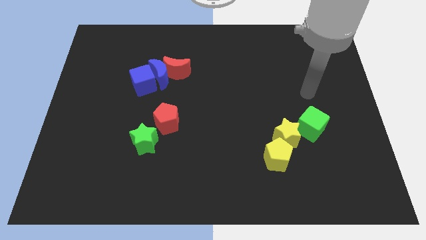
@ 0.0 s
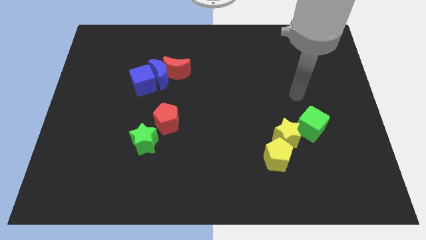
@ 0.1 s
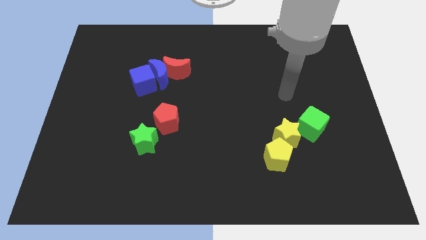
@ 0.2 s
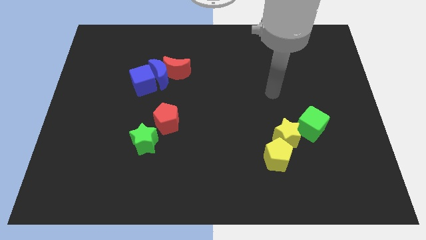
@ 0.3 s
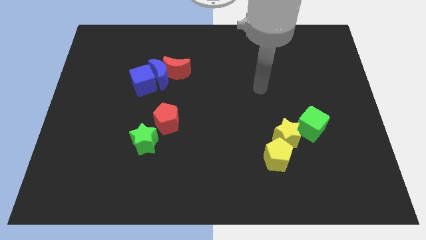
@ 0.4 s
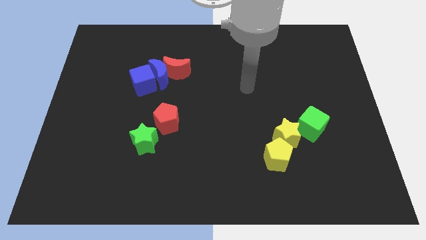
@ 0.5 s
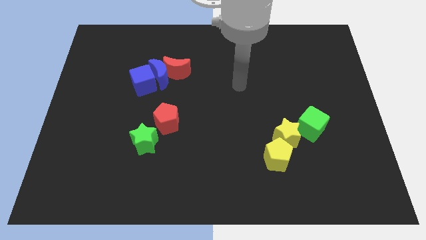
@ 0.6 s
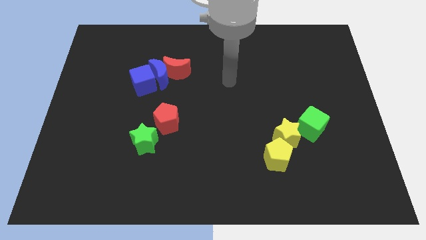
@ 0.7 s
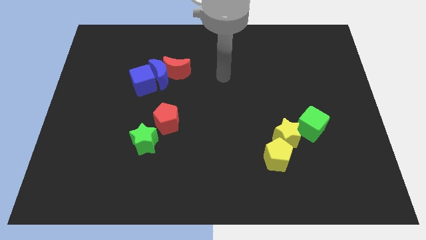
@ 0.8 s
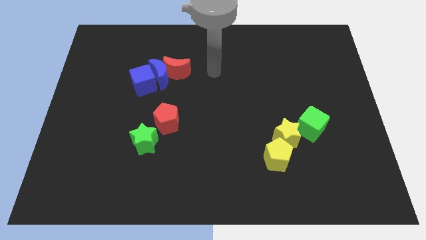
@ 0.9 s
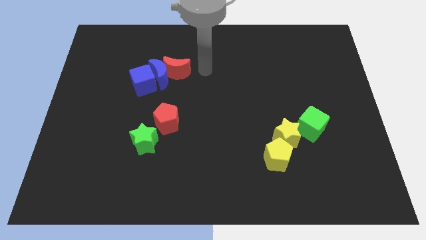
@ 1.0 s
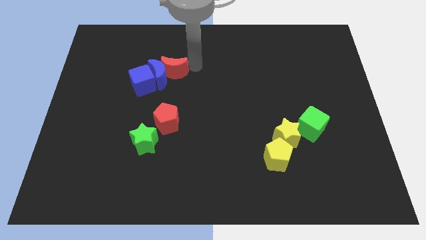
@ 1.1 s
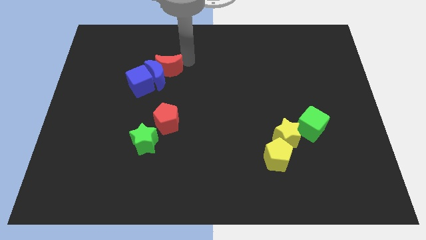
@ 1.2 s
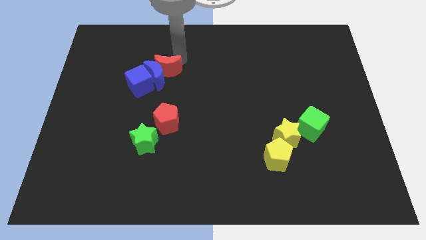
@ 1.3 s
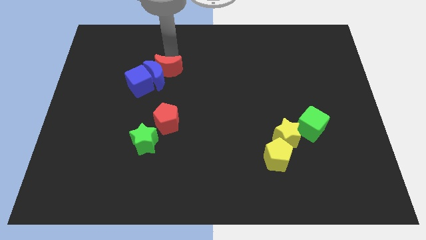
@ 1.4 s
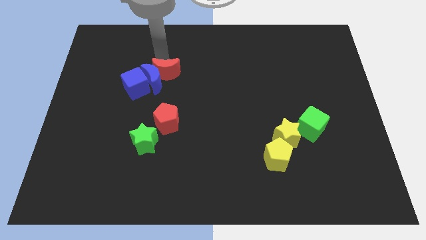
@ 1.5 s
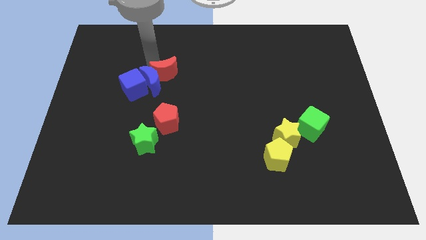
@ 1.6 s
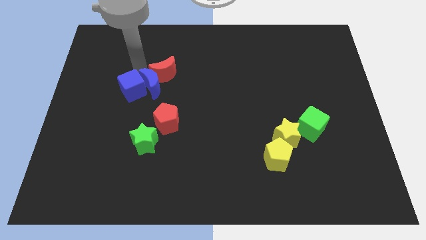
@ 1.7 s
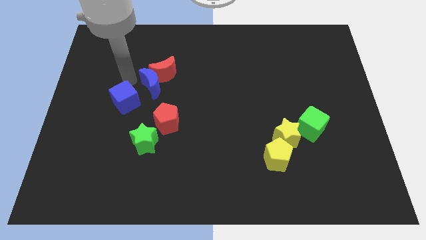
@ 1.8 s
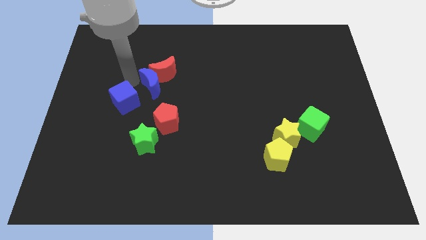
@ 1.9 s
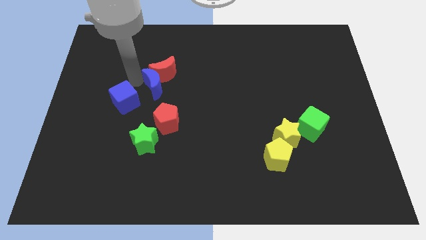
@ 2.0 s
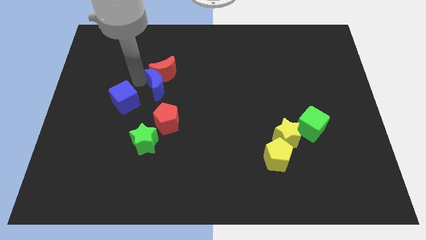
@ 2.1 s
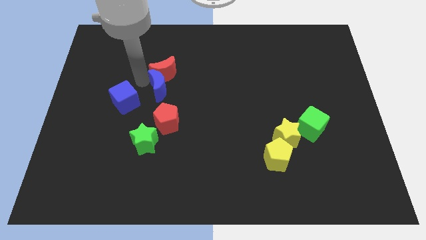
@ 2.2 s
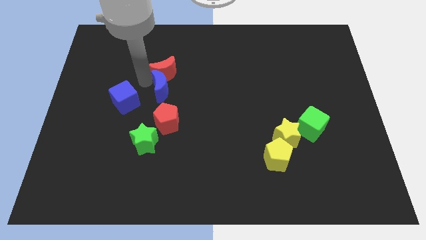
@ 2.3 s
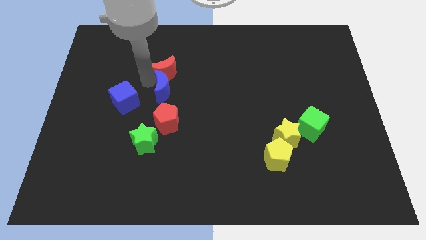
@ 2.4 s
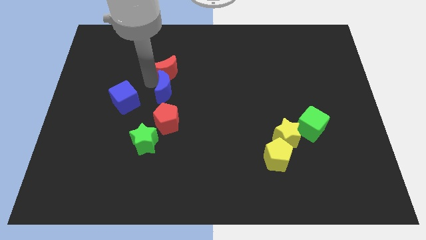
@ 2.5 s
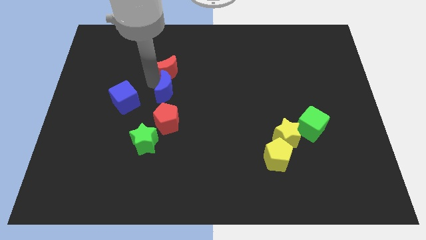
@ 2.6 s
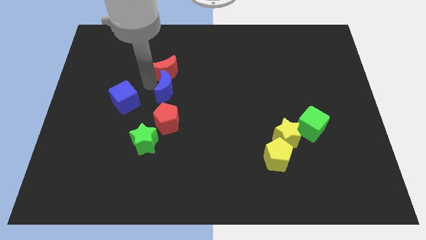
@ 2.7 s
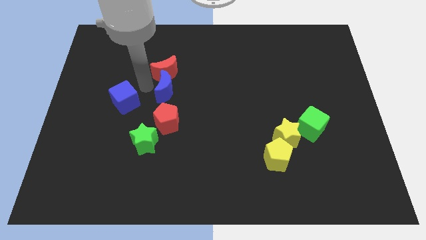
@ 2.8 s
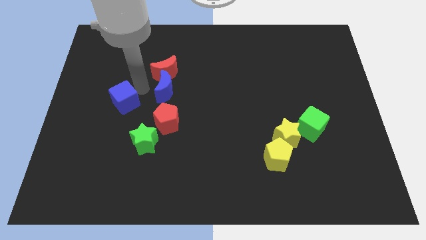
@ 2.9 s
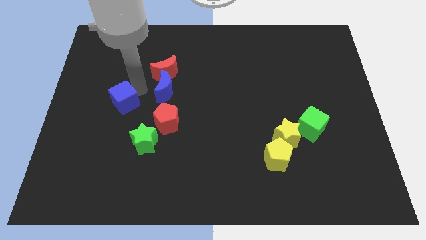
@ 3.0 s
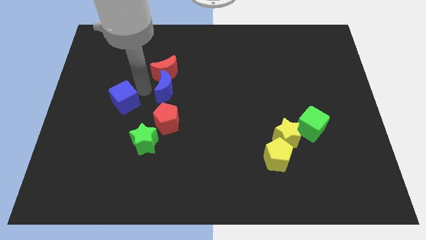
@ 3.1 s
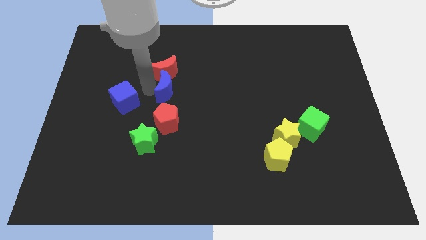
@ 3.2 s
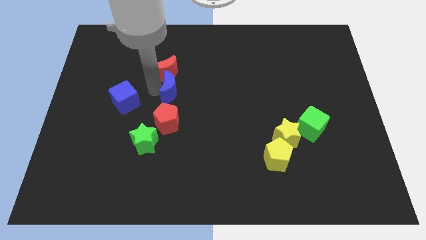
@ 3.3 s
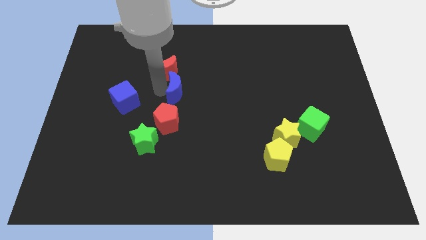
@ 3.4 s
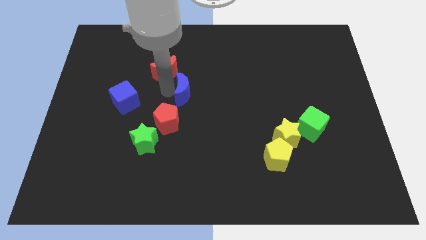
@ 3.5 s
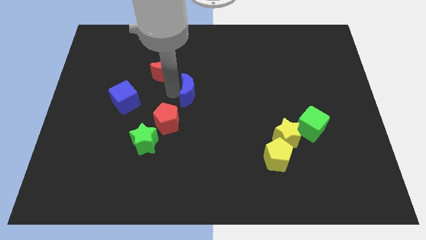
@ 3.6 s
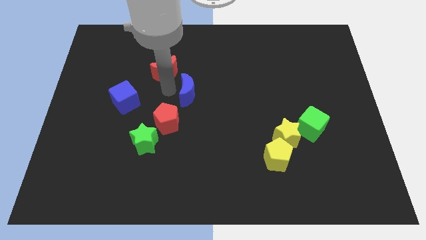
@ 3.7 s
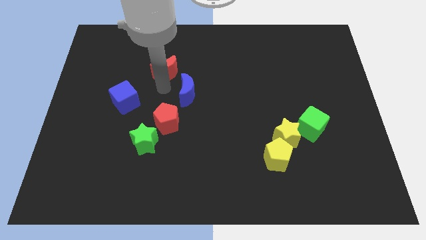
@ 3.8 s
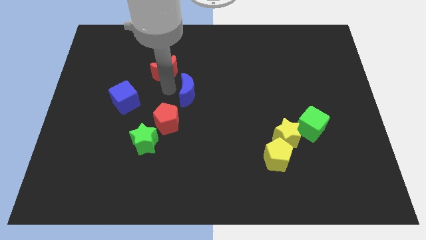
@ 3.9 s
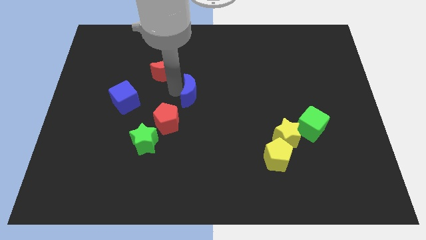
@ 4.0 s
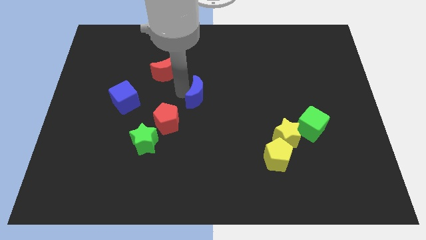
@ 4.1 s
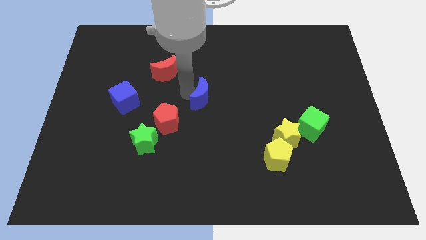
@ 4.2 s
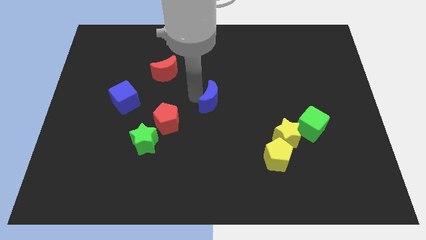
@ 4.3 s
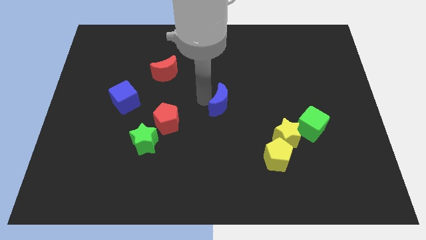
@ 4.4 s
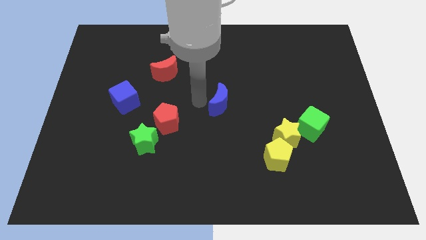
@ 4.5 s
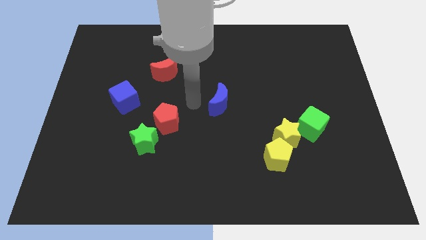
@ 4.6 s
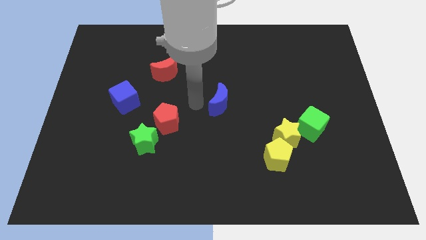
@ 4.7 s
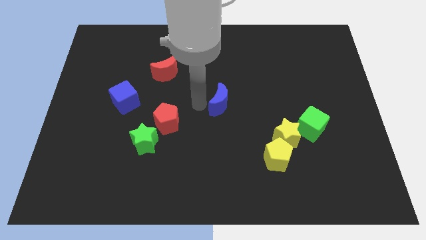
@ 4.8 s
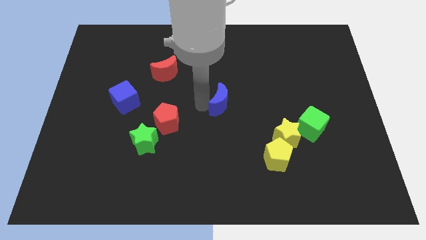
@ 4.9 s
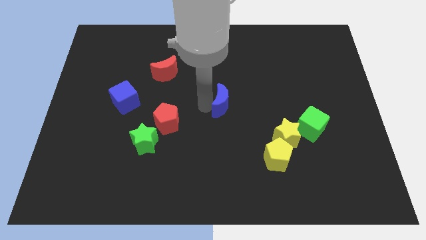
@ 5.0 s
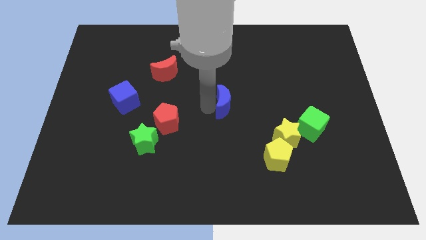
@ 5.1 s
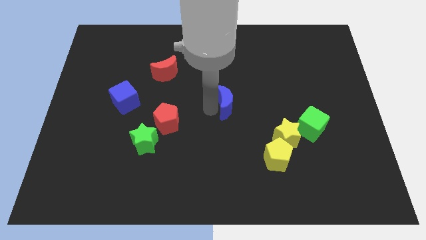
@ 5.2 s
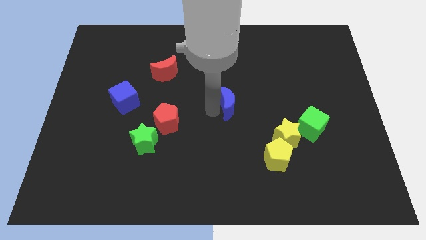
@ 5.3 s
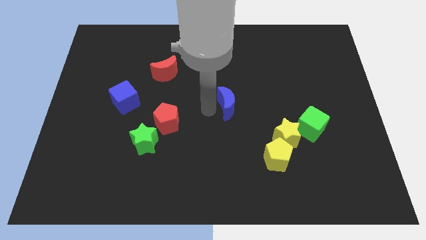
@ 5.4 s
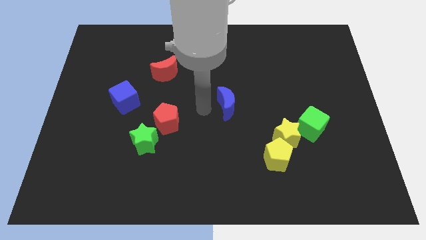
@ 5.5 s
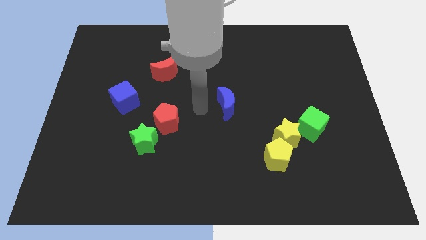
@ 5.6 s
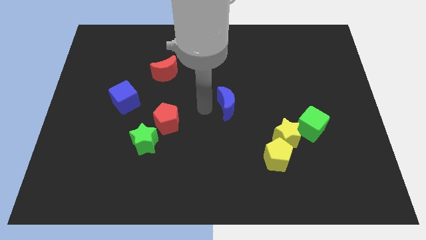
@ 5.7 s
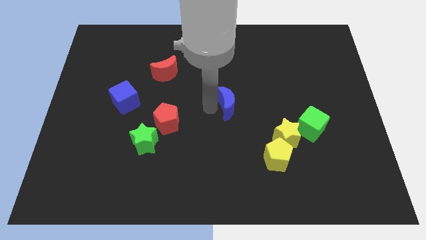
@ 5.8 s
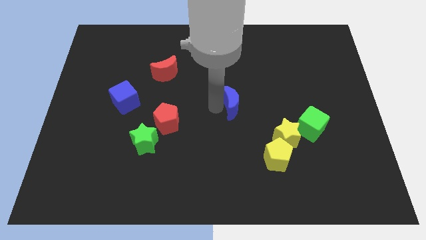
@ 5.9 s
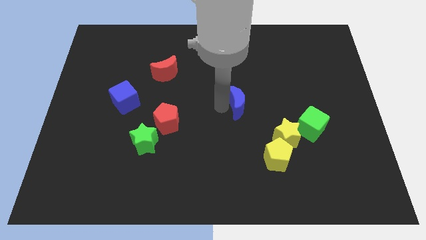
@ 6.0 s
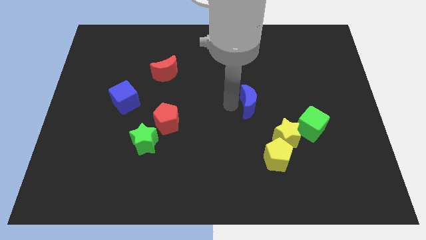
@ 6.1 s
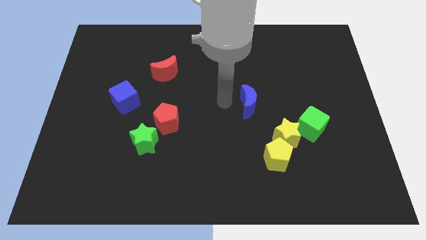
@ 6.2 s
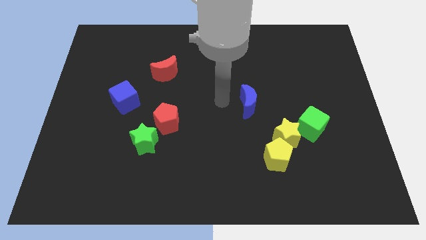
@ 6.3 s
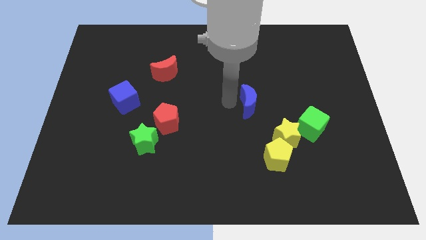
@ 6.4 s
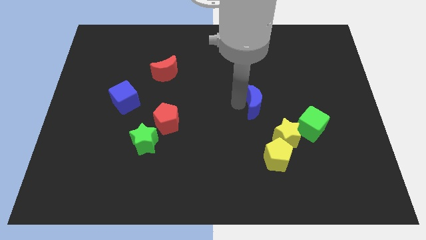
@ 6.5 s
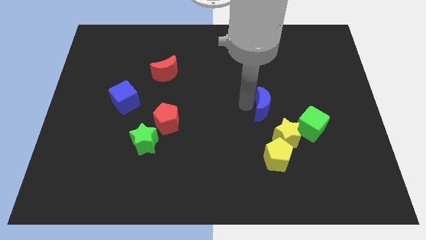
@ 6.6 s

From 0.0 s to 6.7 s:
slide the blue moon diagonally up and to the left of the green cube
